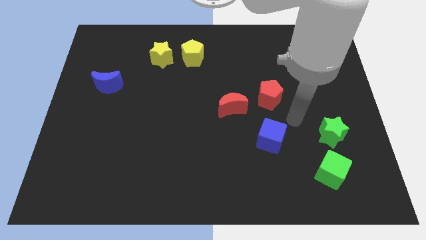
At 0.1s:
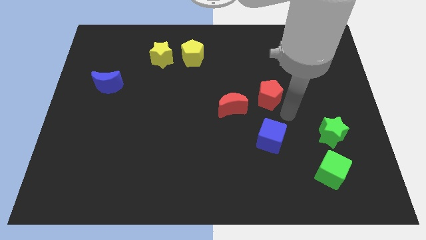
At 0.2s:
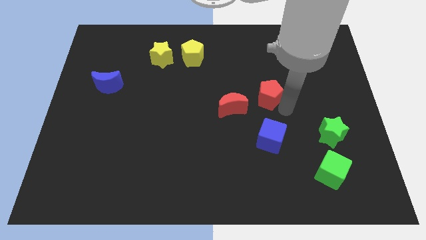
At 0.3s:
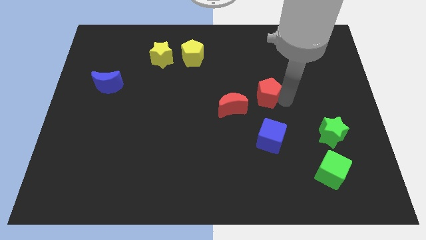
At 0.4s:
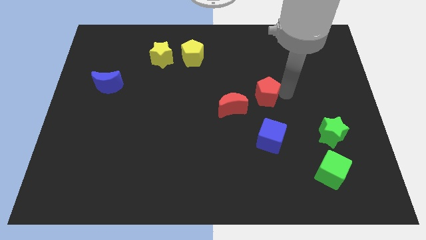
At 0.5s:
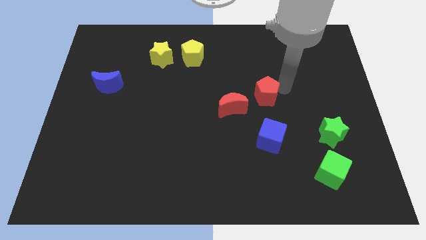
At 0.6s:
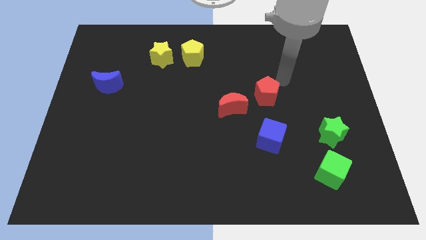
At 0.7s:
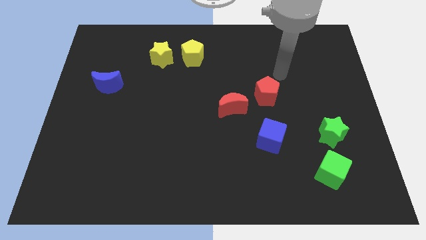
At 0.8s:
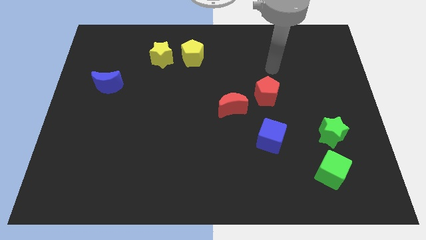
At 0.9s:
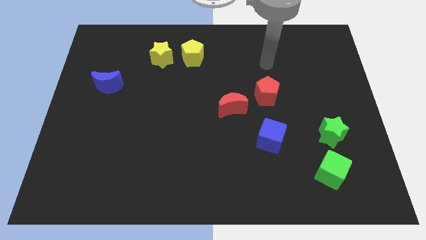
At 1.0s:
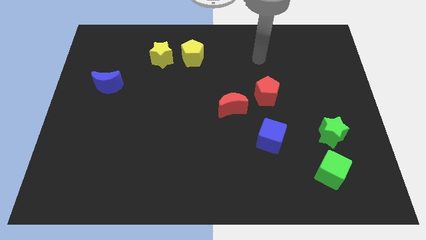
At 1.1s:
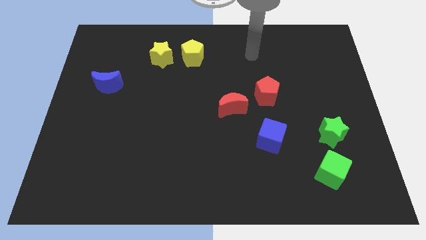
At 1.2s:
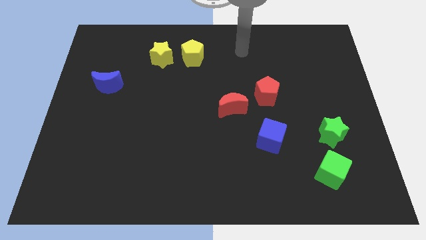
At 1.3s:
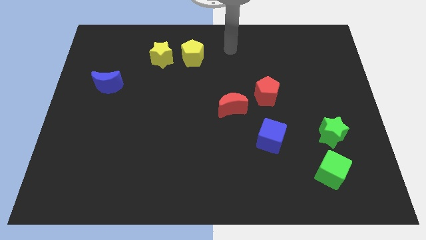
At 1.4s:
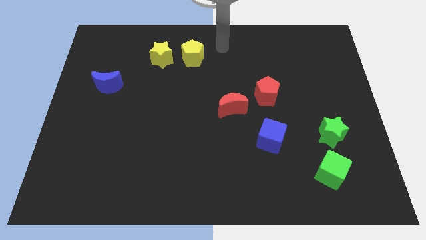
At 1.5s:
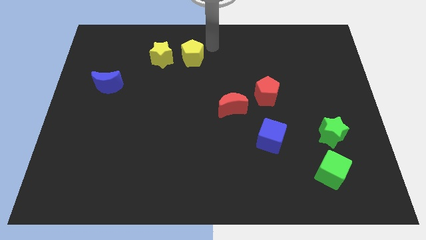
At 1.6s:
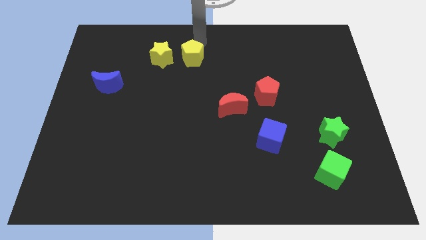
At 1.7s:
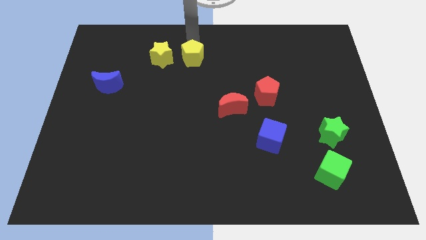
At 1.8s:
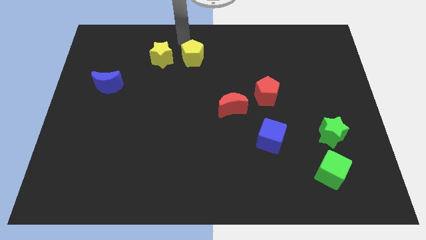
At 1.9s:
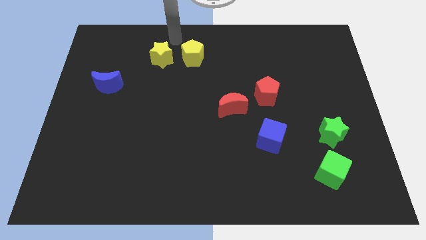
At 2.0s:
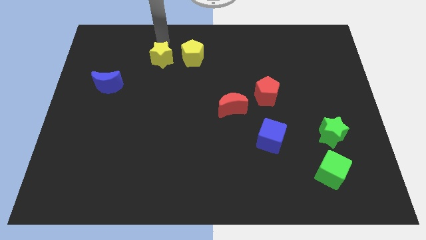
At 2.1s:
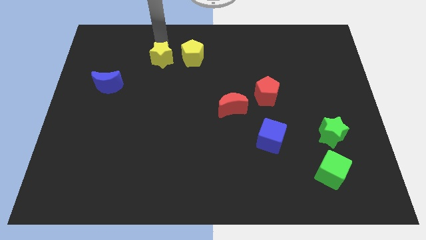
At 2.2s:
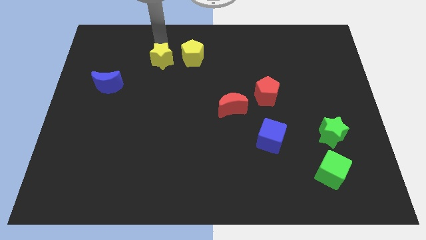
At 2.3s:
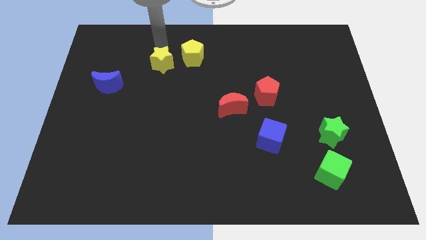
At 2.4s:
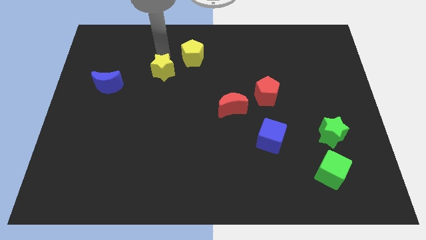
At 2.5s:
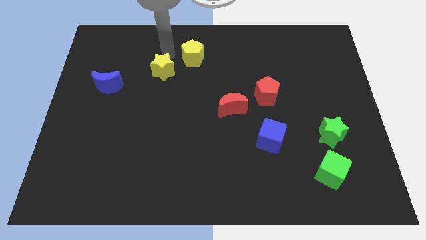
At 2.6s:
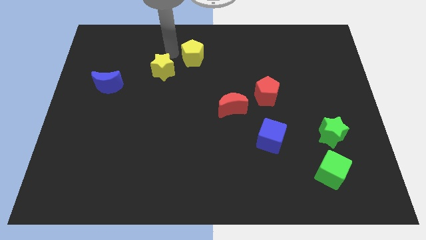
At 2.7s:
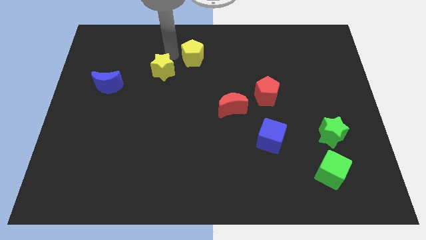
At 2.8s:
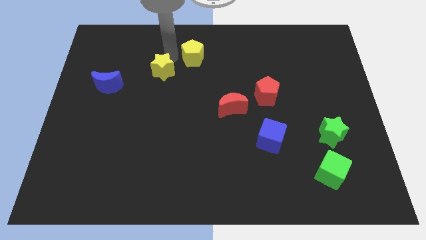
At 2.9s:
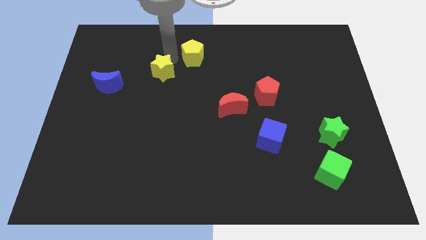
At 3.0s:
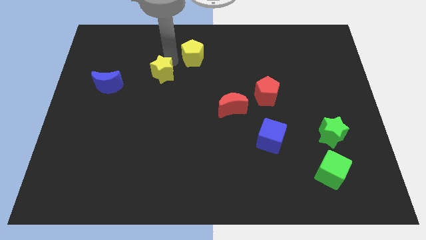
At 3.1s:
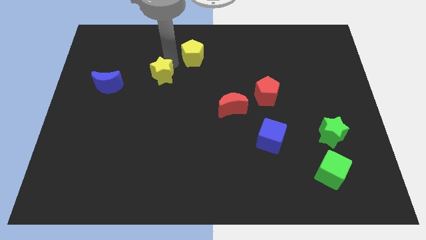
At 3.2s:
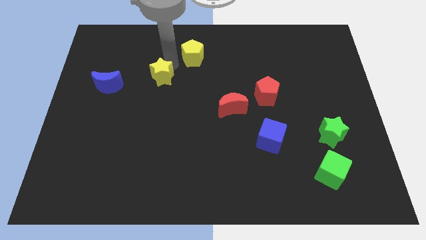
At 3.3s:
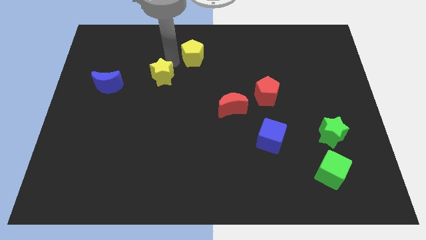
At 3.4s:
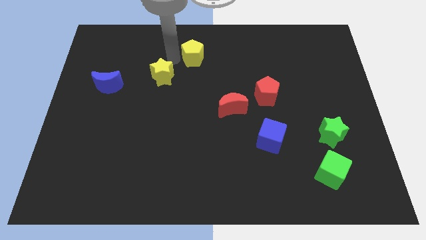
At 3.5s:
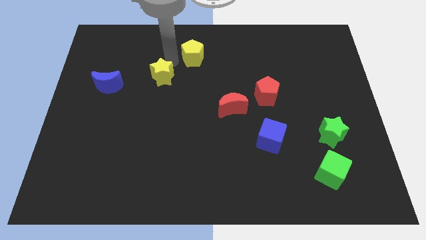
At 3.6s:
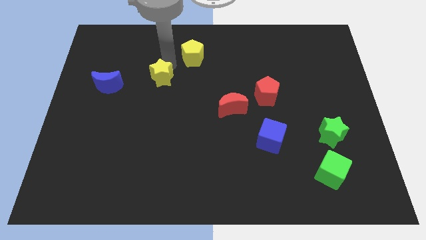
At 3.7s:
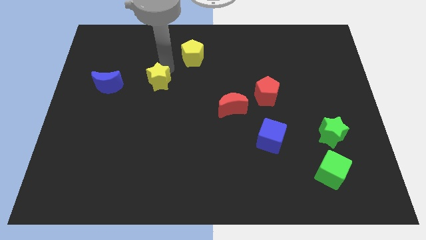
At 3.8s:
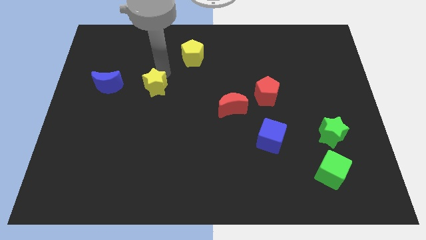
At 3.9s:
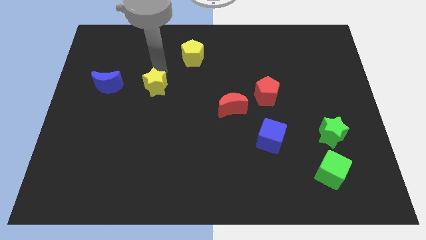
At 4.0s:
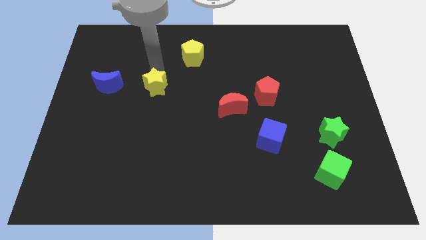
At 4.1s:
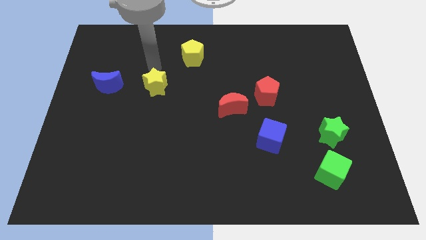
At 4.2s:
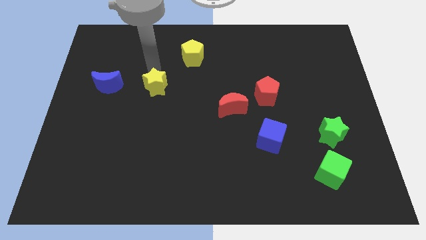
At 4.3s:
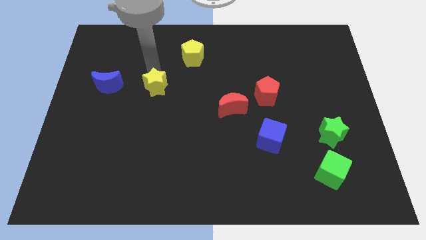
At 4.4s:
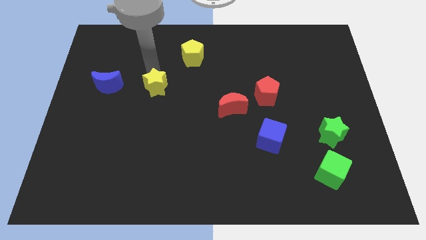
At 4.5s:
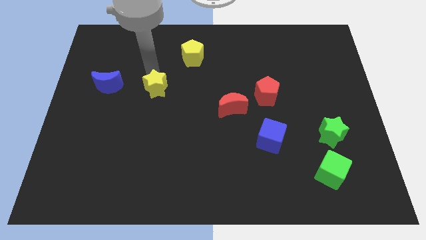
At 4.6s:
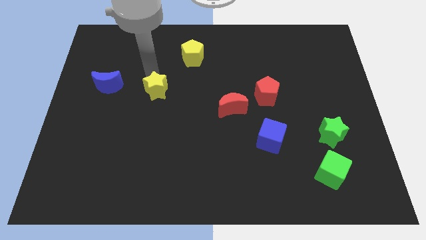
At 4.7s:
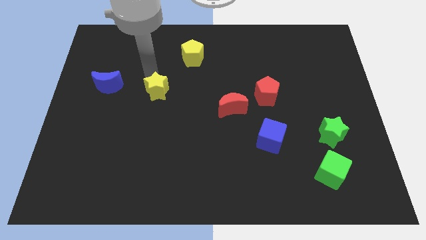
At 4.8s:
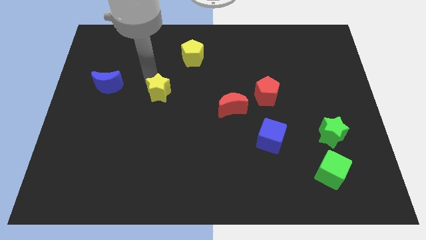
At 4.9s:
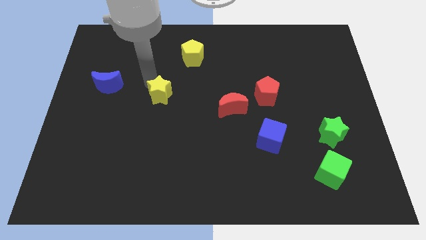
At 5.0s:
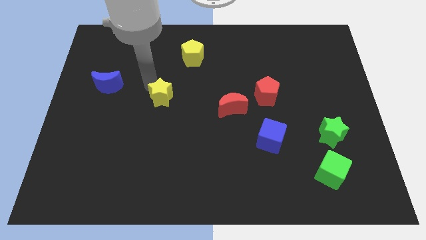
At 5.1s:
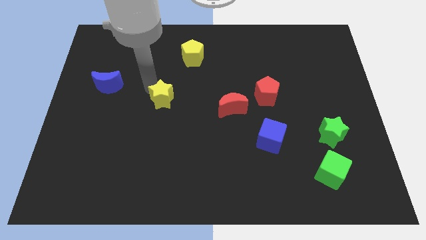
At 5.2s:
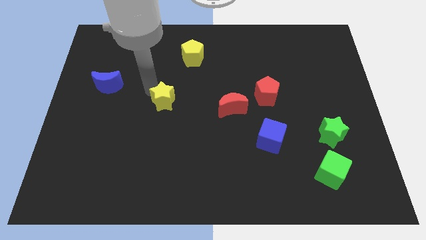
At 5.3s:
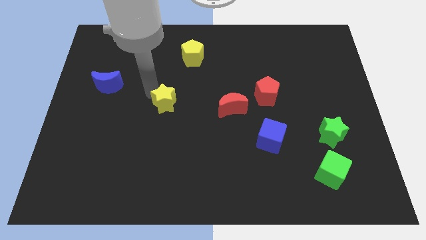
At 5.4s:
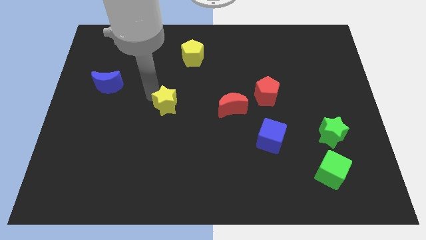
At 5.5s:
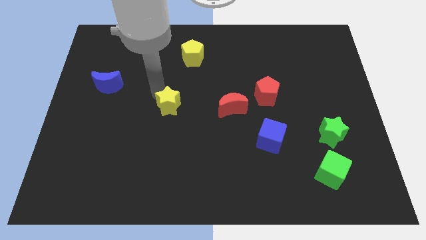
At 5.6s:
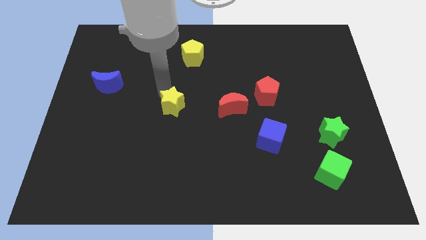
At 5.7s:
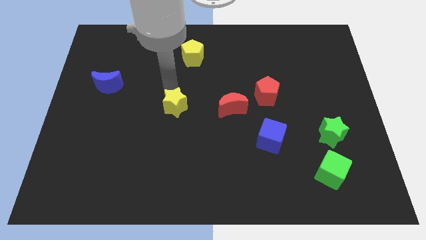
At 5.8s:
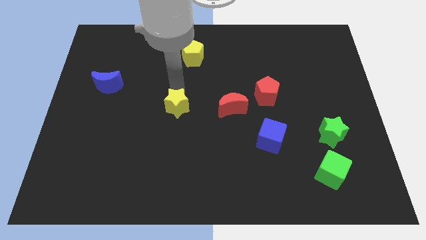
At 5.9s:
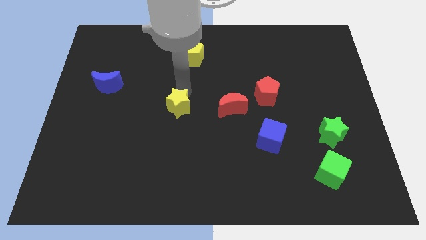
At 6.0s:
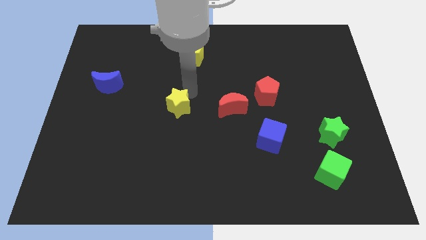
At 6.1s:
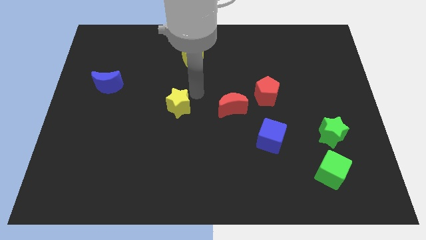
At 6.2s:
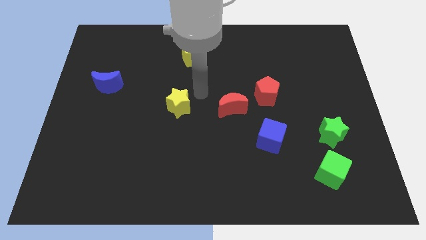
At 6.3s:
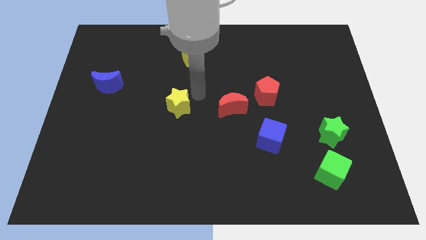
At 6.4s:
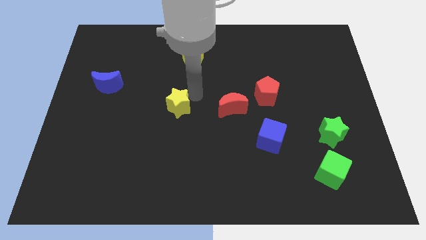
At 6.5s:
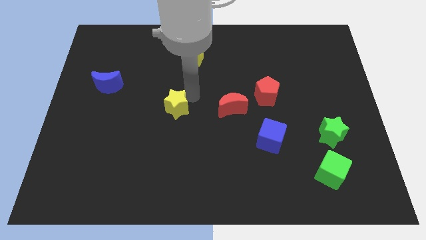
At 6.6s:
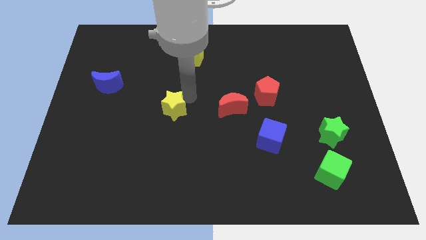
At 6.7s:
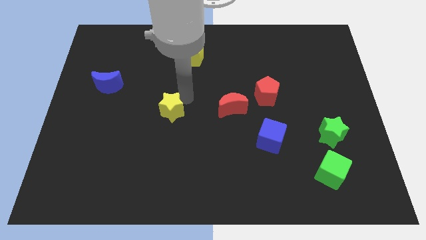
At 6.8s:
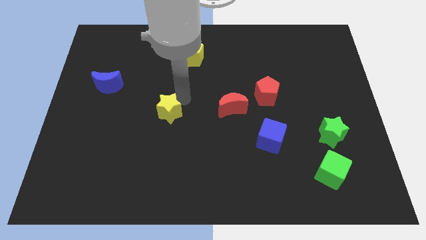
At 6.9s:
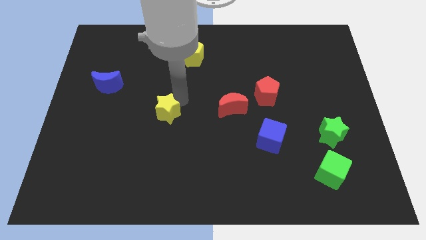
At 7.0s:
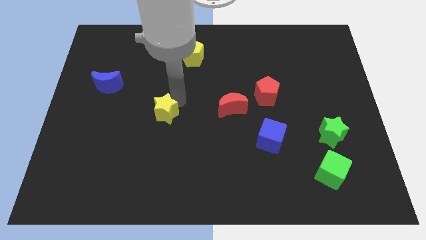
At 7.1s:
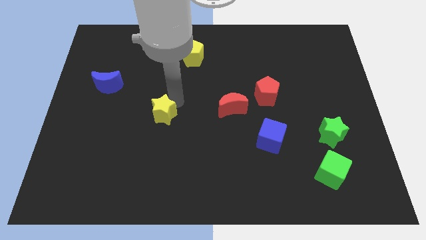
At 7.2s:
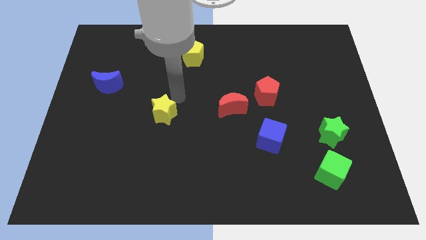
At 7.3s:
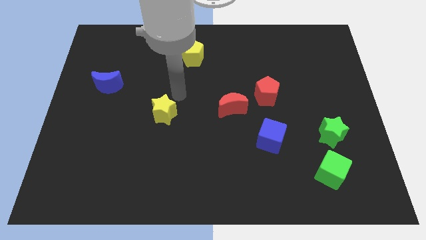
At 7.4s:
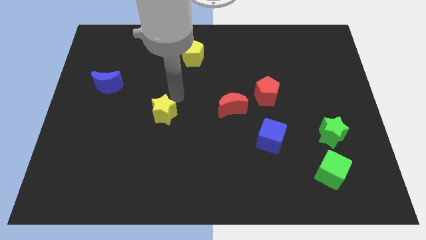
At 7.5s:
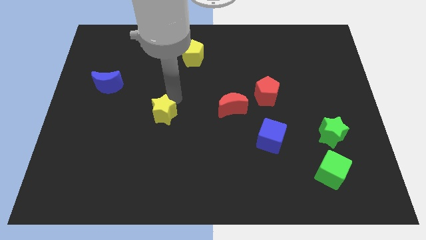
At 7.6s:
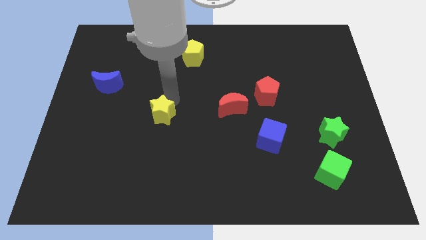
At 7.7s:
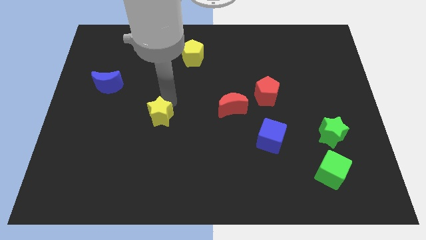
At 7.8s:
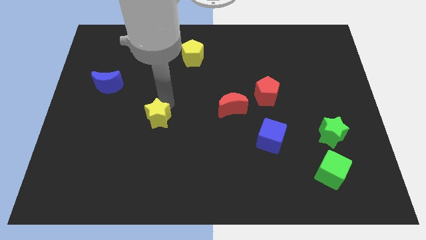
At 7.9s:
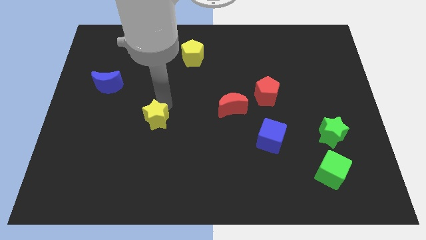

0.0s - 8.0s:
push the yellow star downwards
